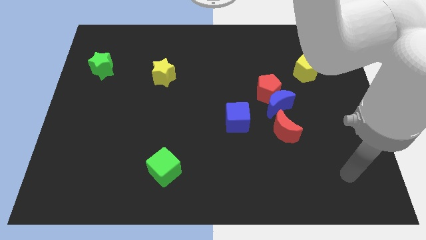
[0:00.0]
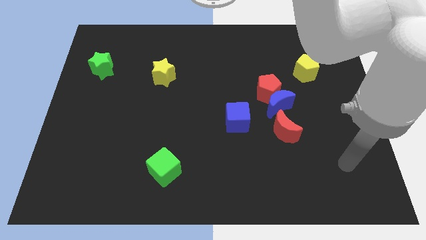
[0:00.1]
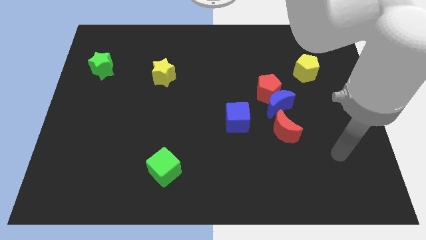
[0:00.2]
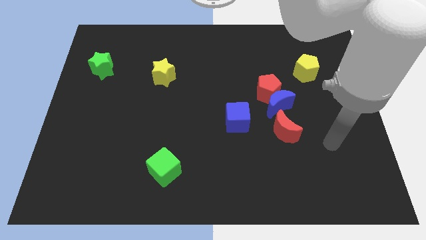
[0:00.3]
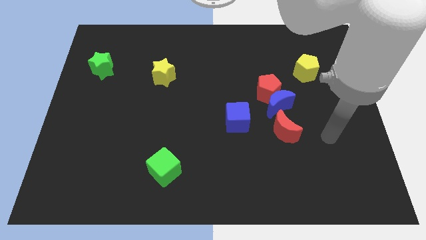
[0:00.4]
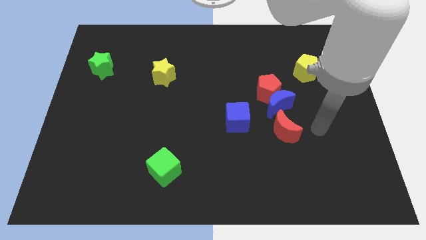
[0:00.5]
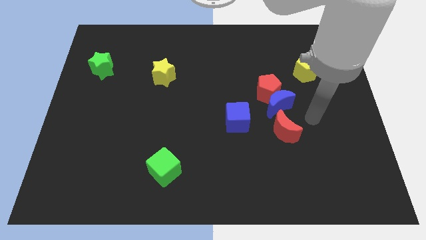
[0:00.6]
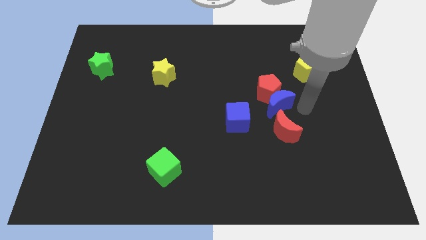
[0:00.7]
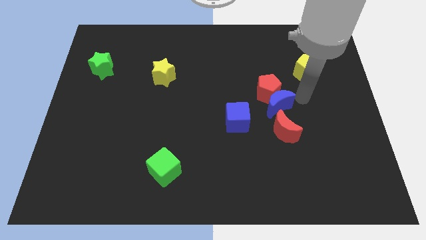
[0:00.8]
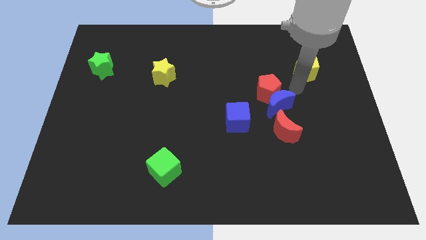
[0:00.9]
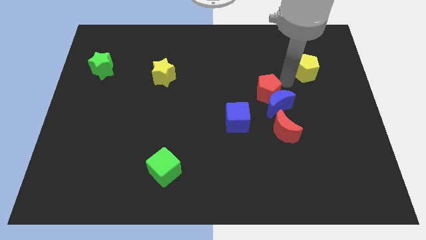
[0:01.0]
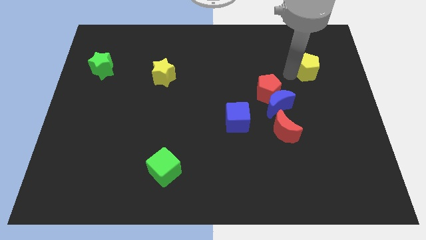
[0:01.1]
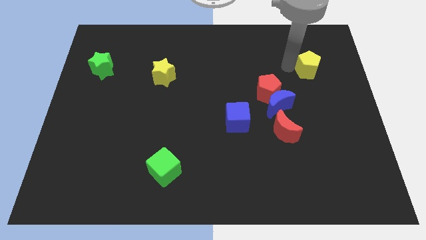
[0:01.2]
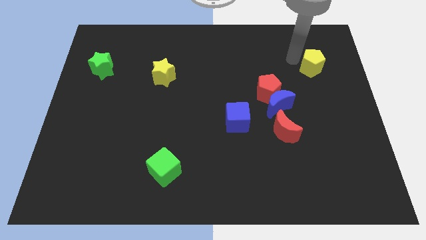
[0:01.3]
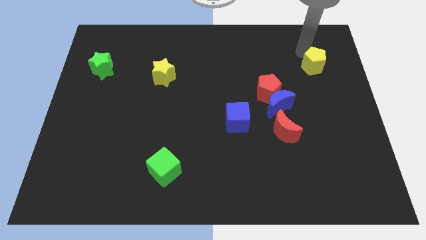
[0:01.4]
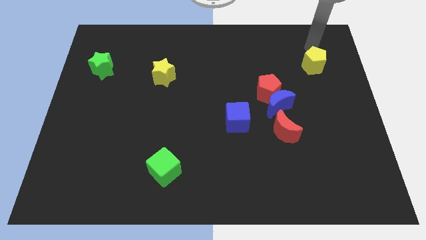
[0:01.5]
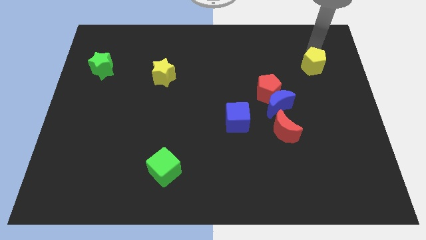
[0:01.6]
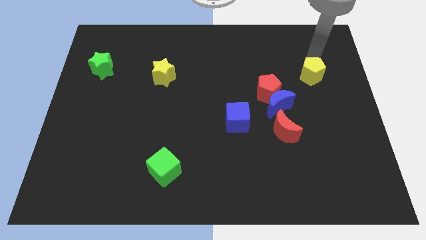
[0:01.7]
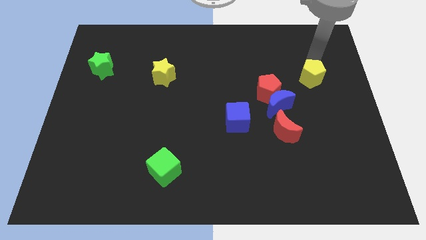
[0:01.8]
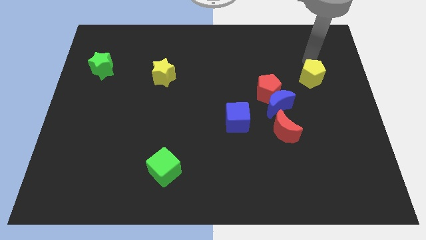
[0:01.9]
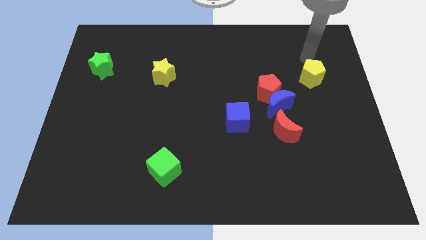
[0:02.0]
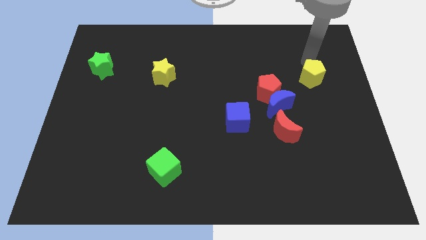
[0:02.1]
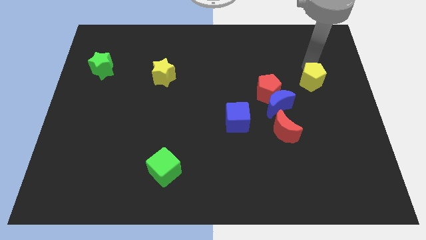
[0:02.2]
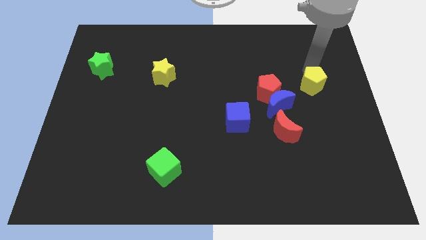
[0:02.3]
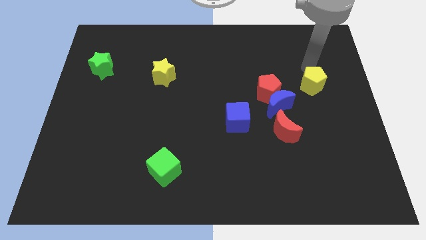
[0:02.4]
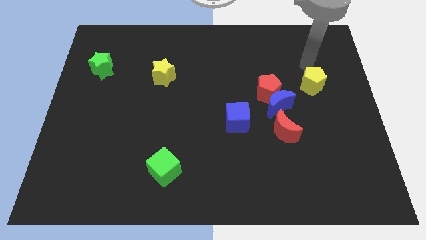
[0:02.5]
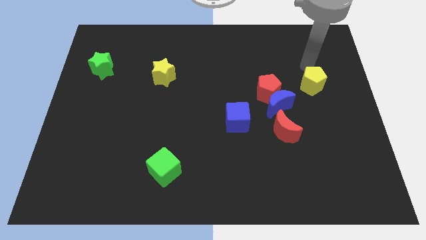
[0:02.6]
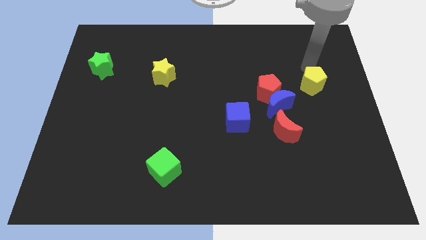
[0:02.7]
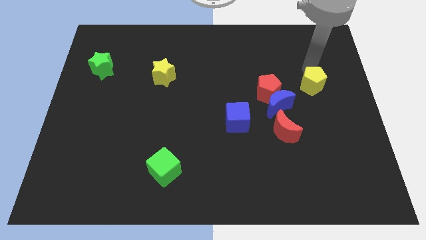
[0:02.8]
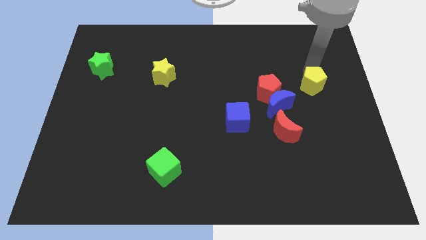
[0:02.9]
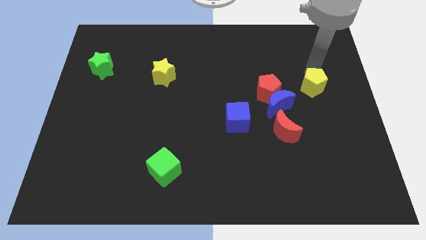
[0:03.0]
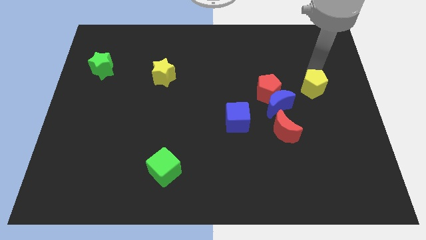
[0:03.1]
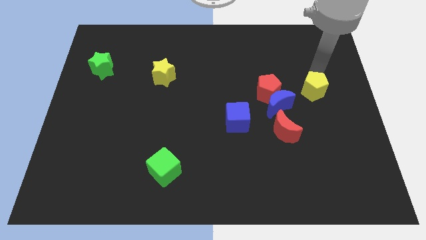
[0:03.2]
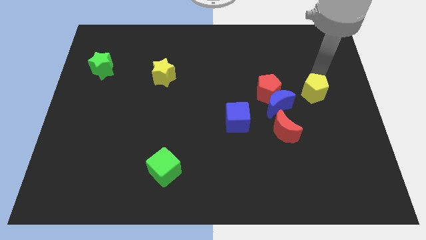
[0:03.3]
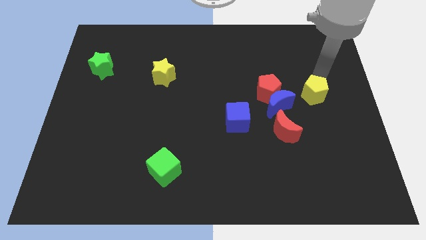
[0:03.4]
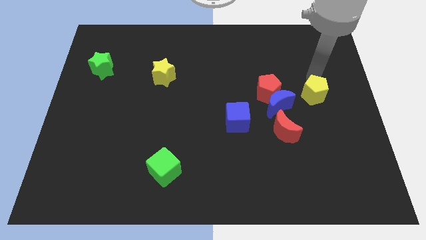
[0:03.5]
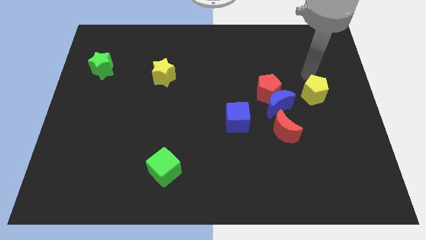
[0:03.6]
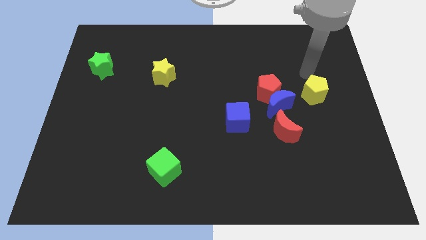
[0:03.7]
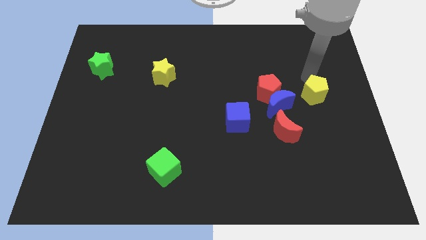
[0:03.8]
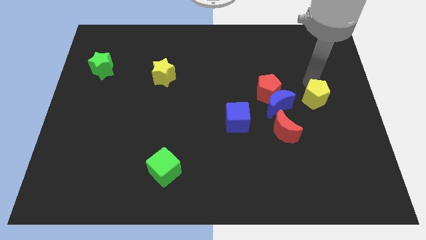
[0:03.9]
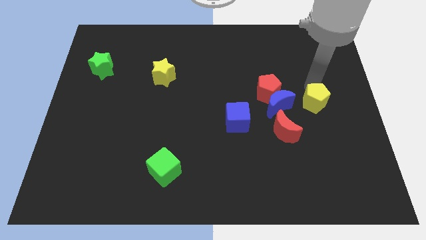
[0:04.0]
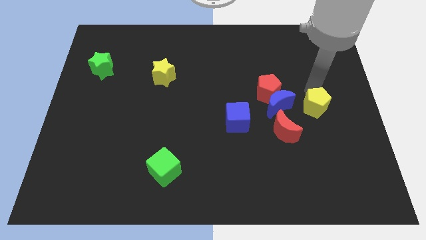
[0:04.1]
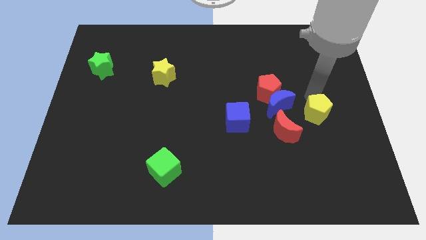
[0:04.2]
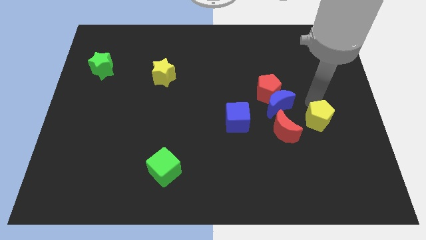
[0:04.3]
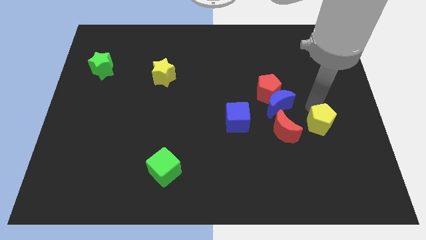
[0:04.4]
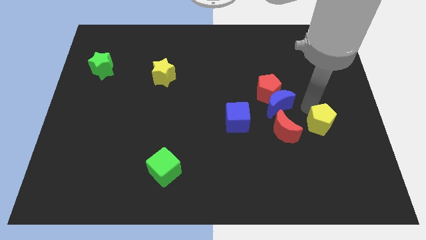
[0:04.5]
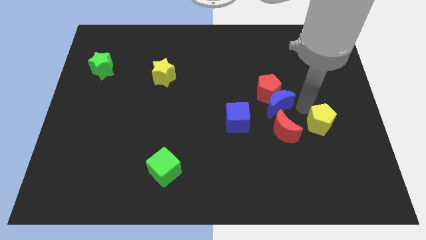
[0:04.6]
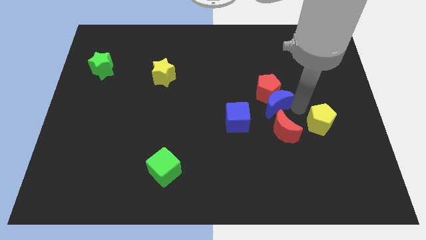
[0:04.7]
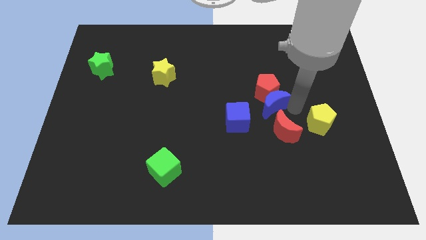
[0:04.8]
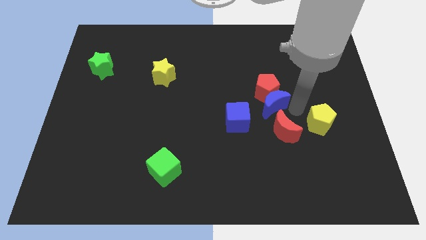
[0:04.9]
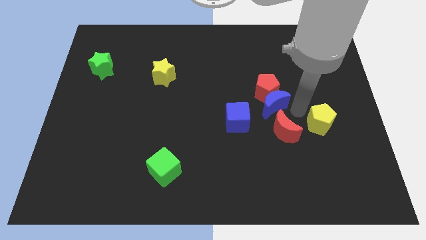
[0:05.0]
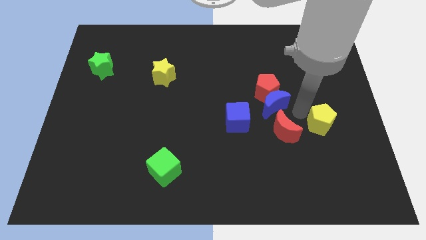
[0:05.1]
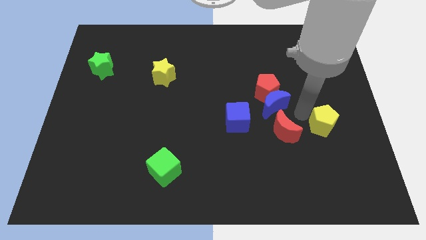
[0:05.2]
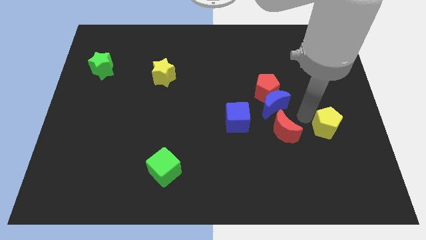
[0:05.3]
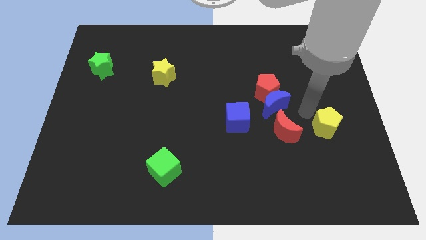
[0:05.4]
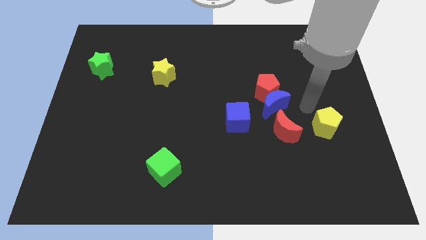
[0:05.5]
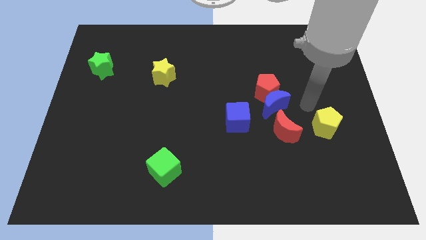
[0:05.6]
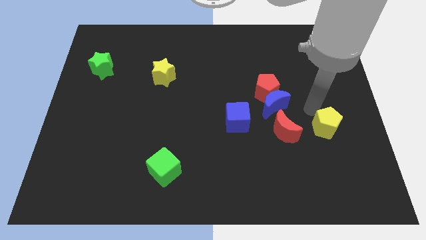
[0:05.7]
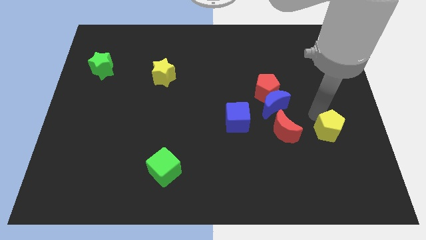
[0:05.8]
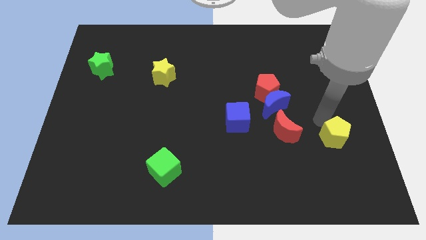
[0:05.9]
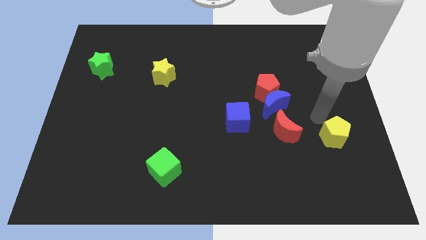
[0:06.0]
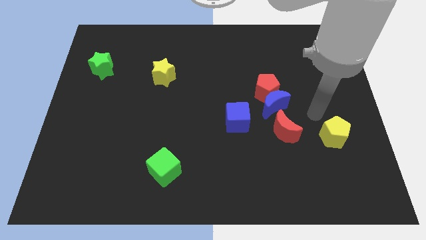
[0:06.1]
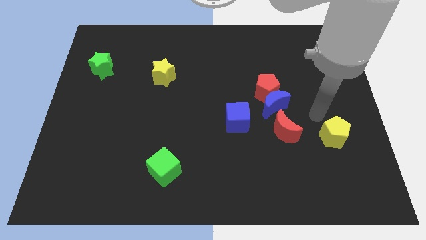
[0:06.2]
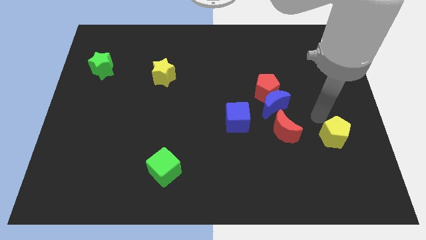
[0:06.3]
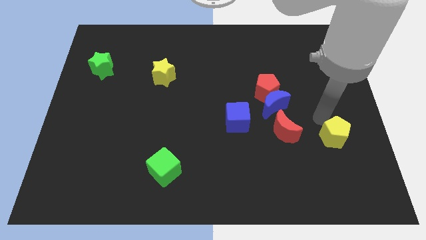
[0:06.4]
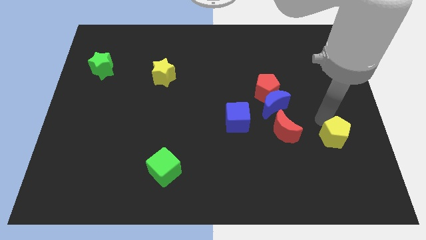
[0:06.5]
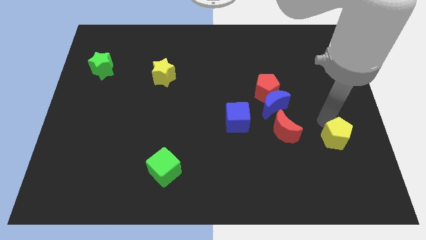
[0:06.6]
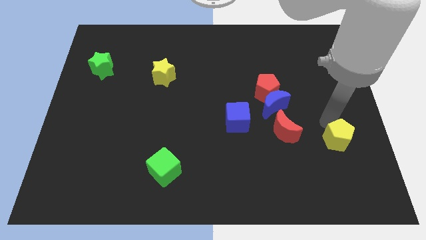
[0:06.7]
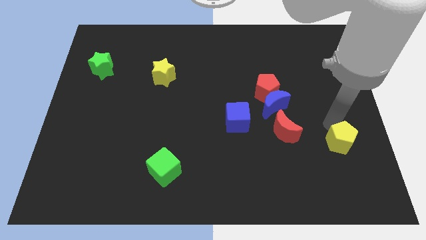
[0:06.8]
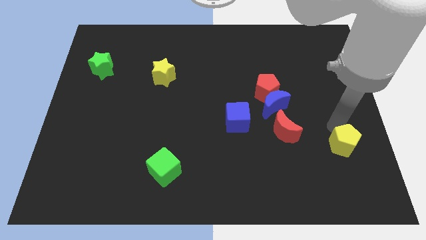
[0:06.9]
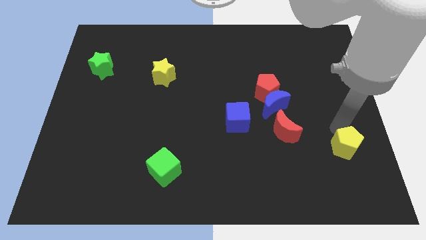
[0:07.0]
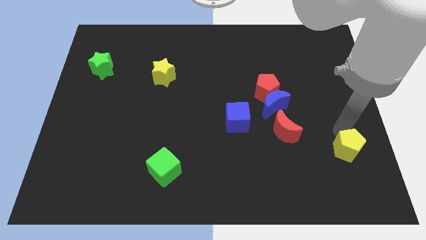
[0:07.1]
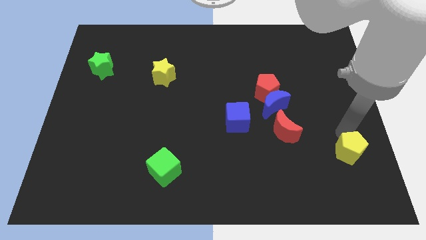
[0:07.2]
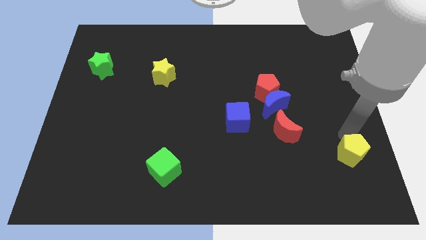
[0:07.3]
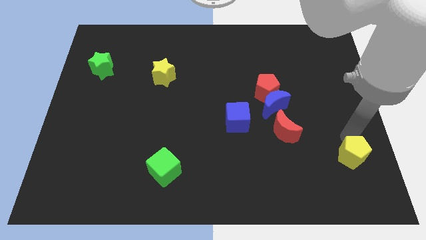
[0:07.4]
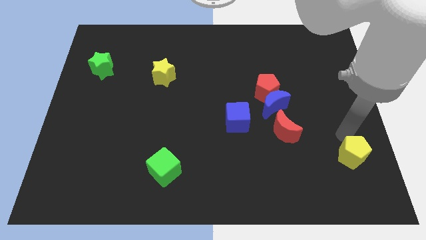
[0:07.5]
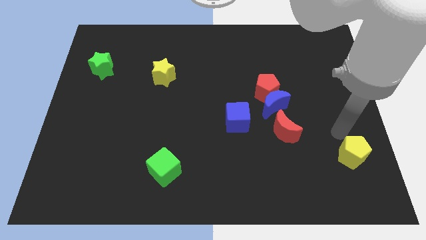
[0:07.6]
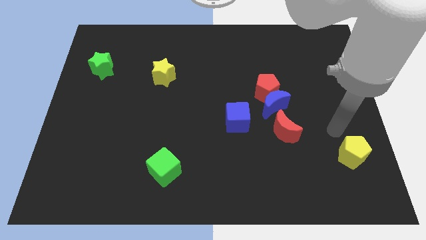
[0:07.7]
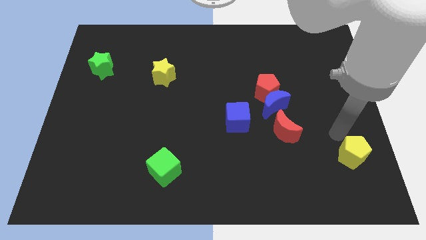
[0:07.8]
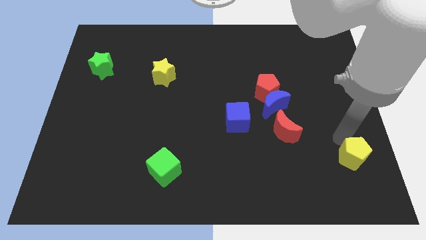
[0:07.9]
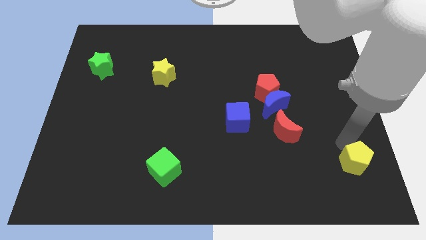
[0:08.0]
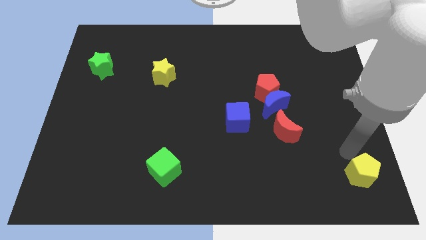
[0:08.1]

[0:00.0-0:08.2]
move the yellow pentagon to the lower right corner
